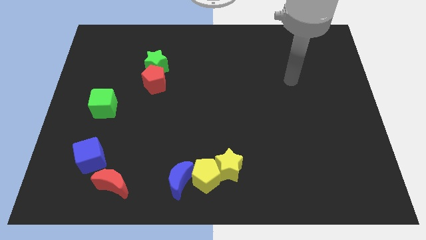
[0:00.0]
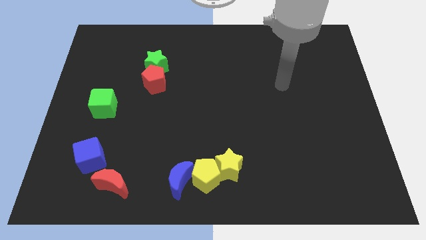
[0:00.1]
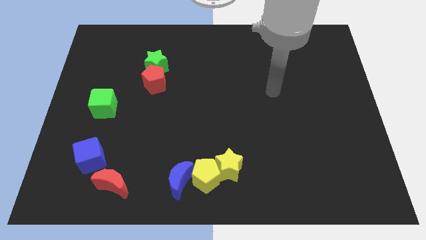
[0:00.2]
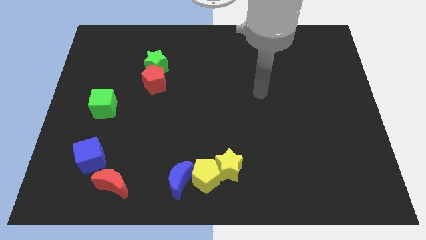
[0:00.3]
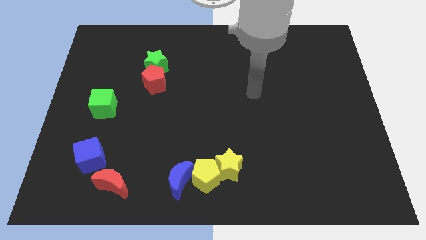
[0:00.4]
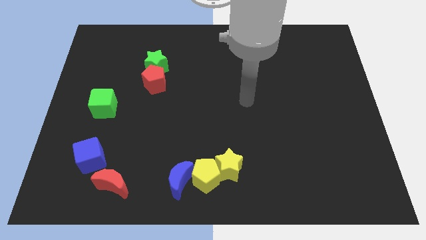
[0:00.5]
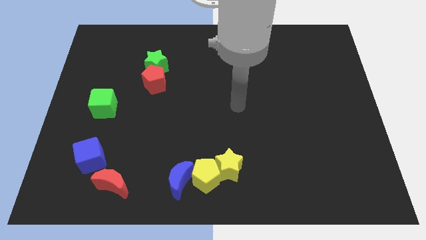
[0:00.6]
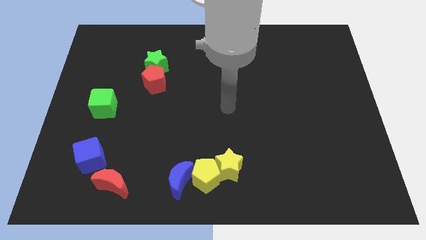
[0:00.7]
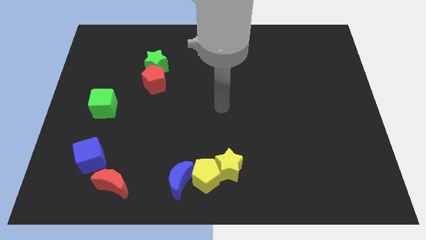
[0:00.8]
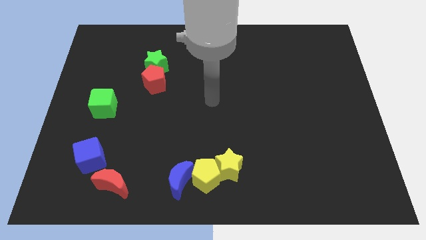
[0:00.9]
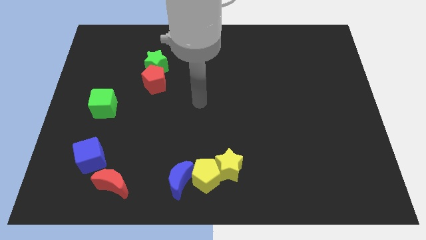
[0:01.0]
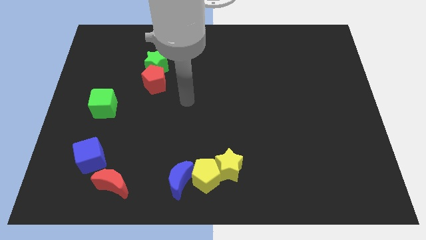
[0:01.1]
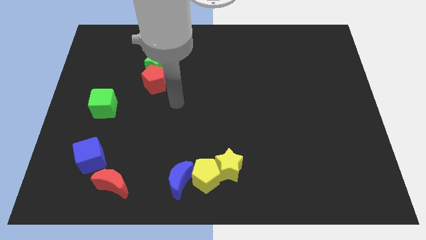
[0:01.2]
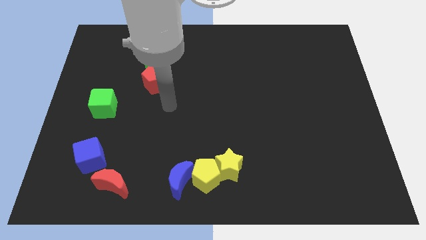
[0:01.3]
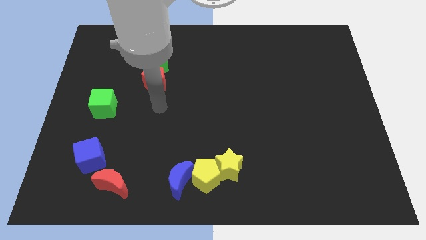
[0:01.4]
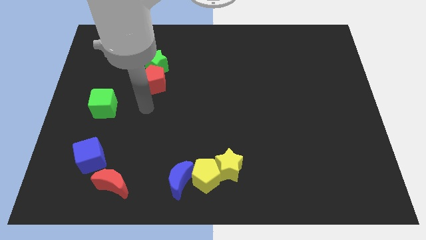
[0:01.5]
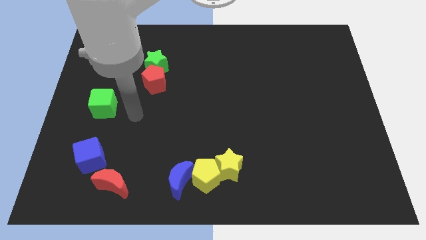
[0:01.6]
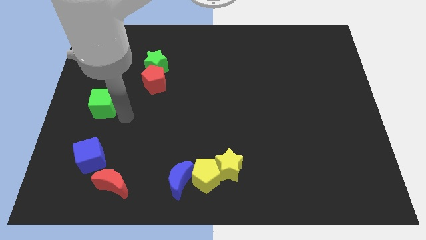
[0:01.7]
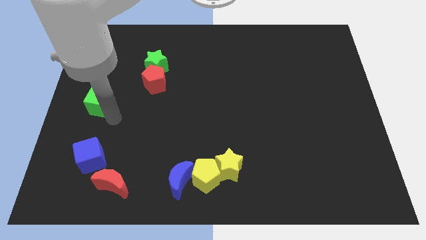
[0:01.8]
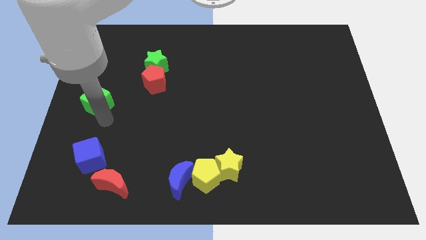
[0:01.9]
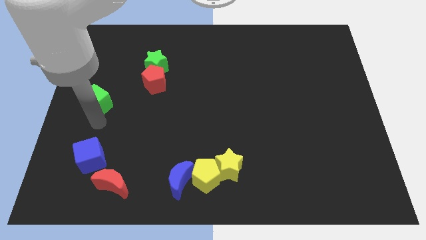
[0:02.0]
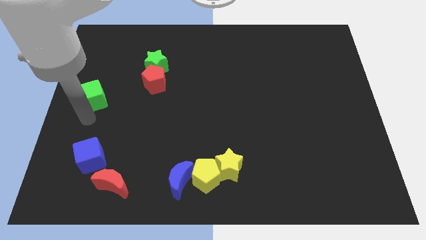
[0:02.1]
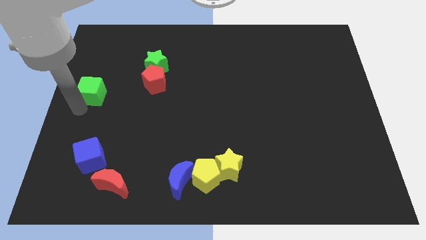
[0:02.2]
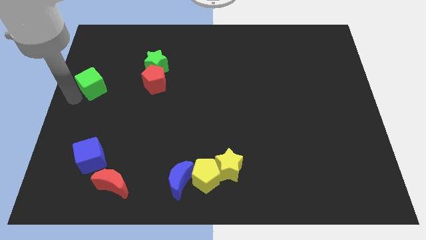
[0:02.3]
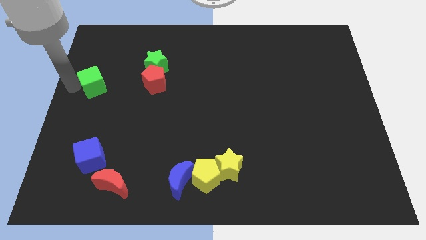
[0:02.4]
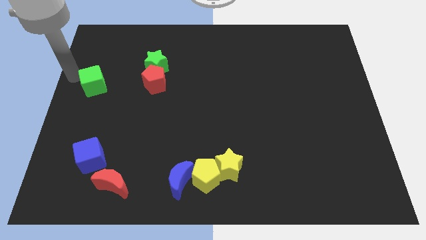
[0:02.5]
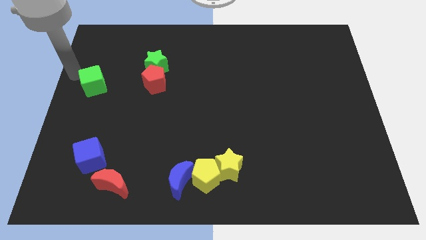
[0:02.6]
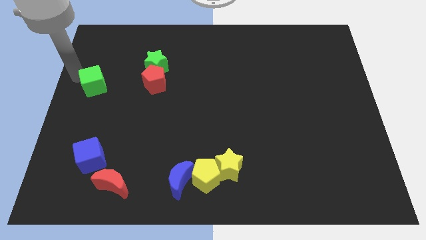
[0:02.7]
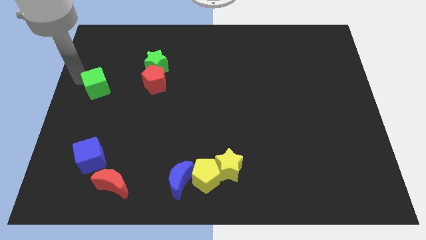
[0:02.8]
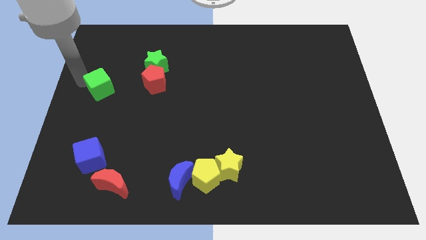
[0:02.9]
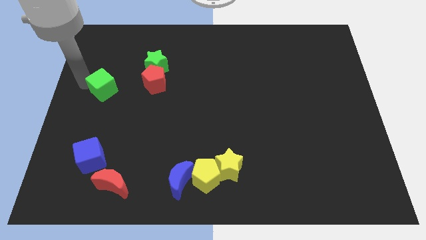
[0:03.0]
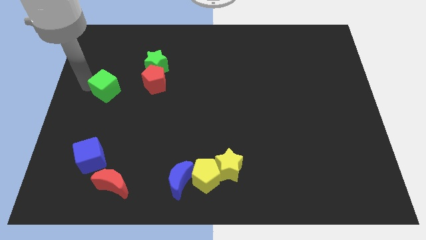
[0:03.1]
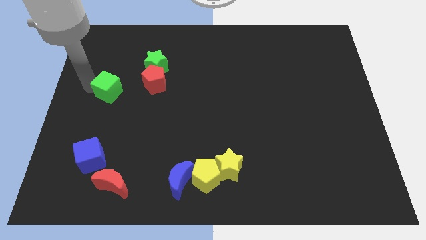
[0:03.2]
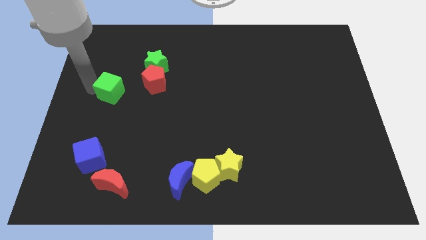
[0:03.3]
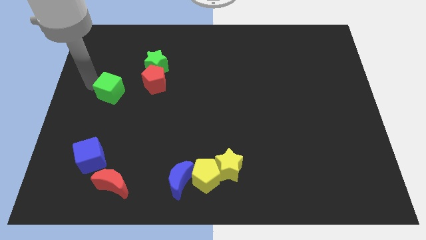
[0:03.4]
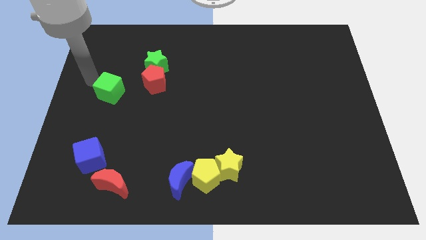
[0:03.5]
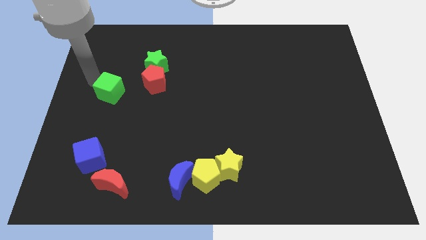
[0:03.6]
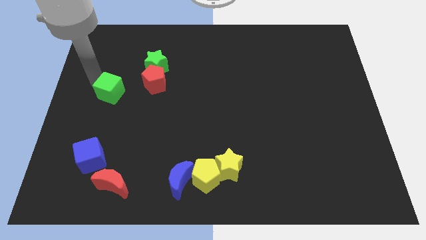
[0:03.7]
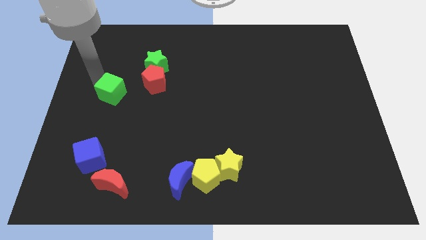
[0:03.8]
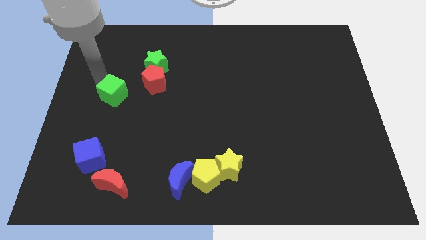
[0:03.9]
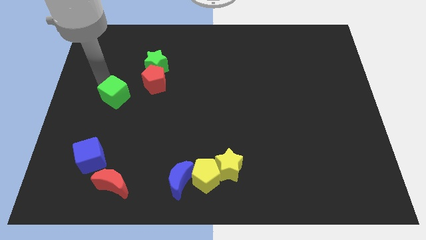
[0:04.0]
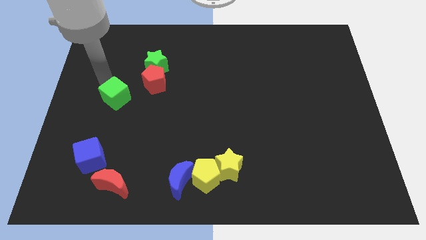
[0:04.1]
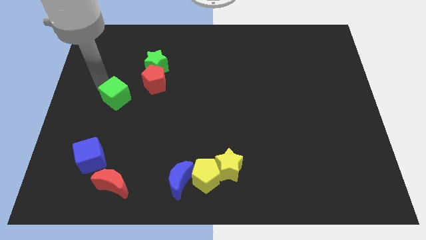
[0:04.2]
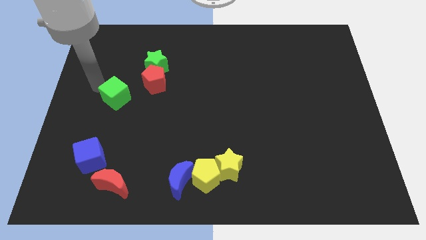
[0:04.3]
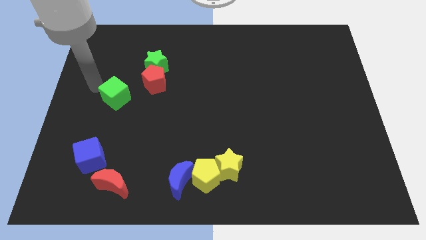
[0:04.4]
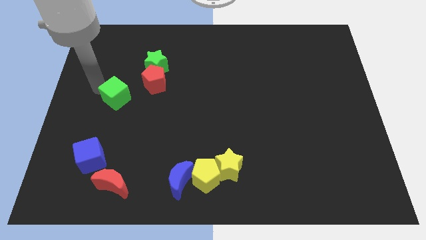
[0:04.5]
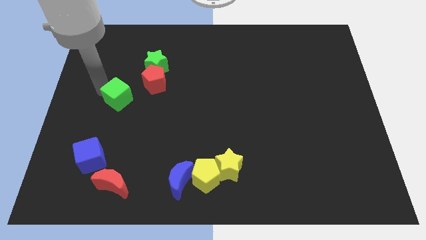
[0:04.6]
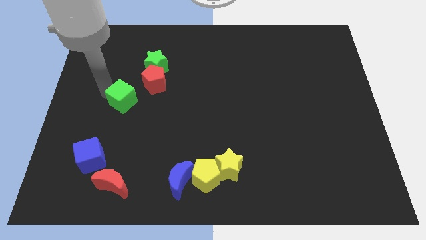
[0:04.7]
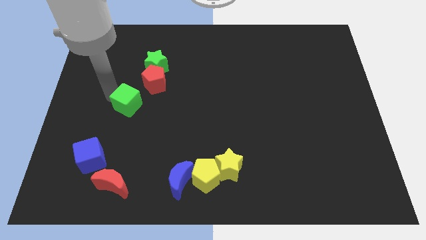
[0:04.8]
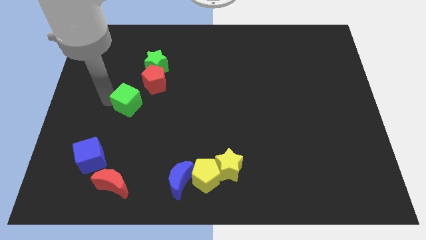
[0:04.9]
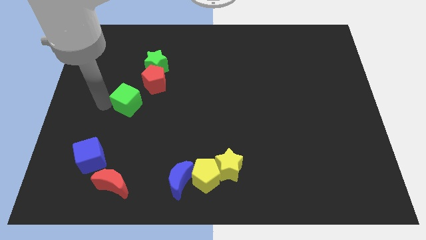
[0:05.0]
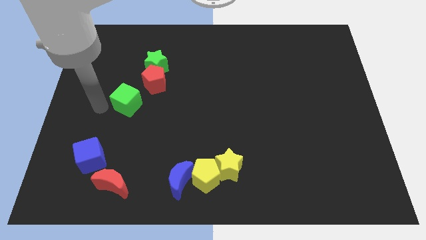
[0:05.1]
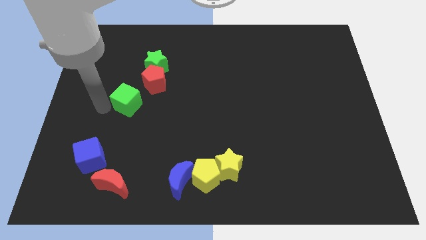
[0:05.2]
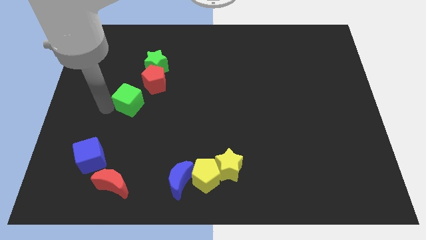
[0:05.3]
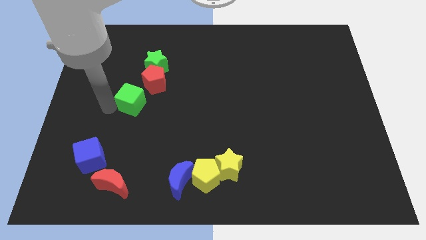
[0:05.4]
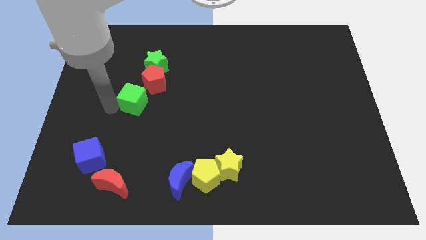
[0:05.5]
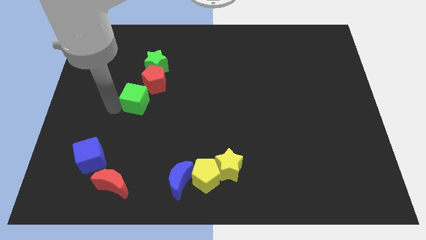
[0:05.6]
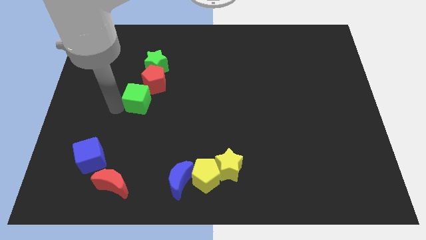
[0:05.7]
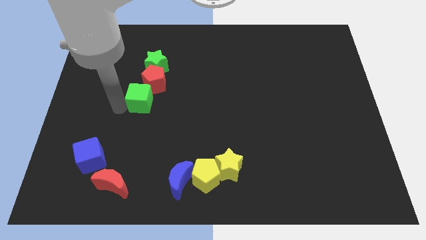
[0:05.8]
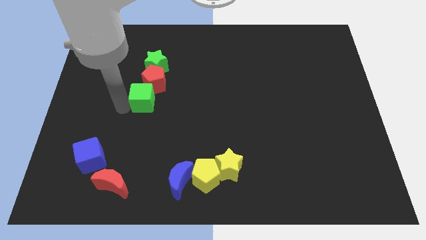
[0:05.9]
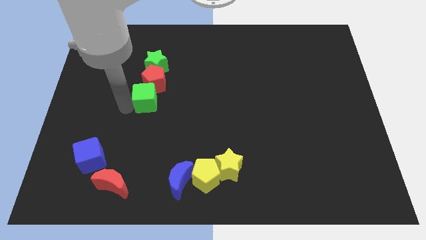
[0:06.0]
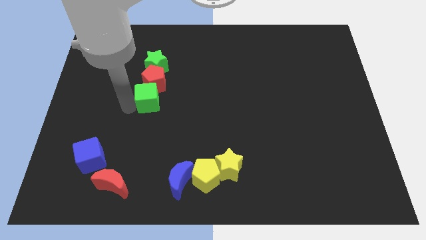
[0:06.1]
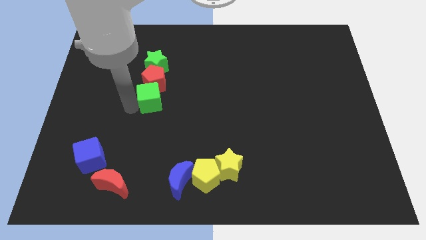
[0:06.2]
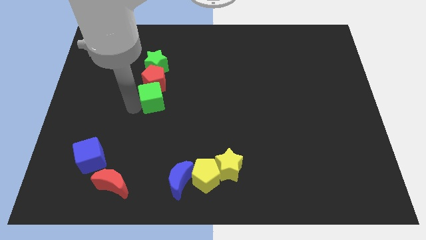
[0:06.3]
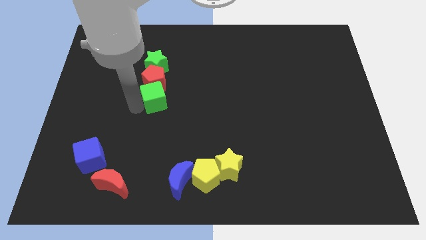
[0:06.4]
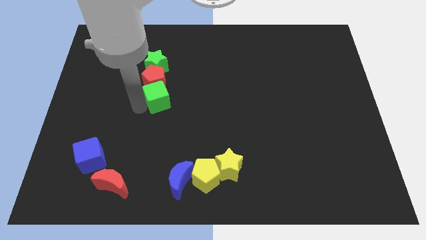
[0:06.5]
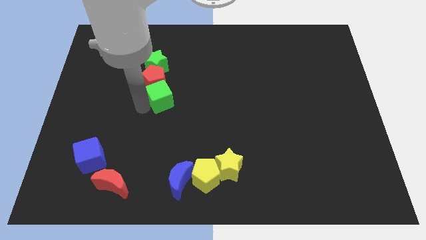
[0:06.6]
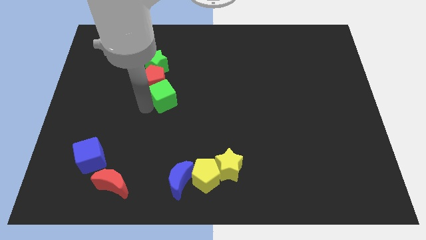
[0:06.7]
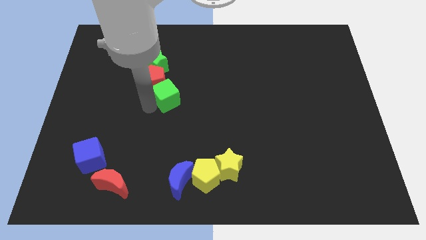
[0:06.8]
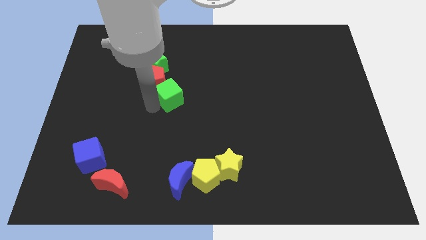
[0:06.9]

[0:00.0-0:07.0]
push the green cube diagonally down and to the right of the green star

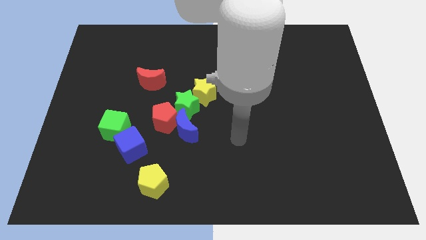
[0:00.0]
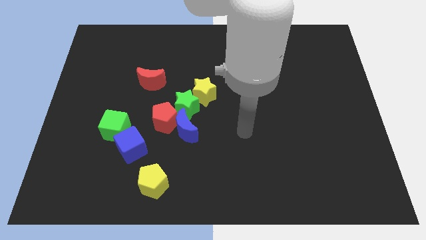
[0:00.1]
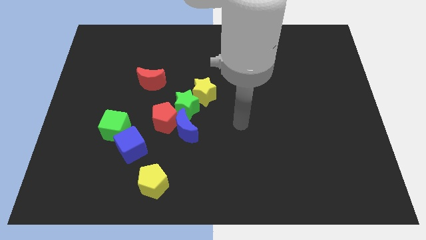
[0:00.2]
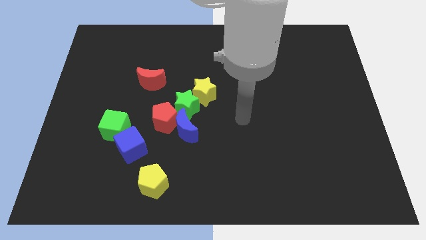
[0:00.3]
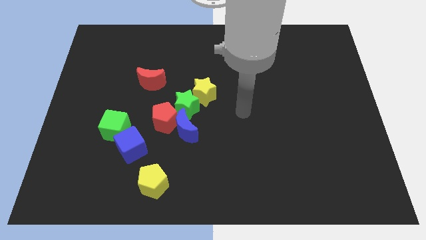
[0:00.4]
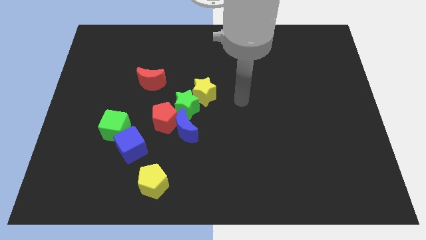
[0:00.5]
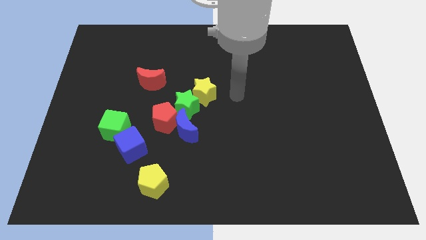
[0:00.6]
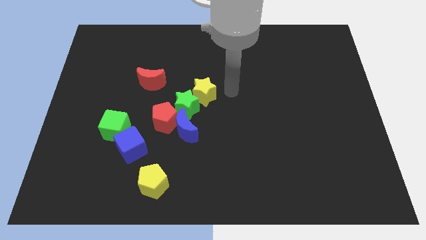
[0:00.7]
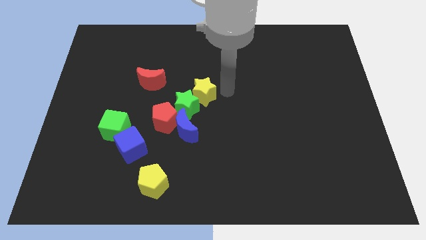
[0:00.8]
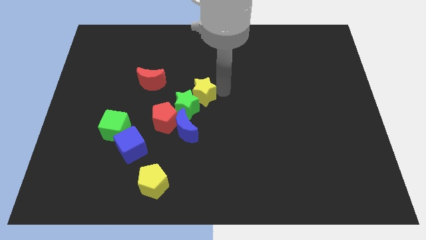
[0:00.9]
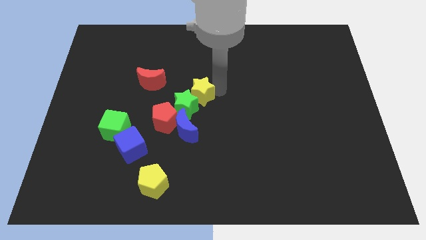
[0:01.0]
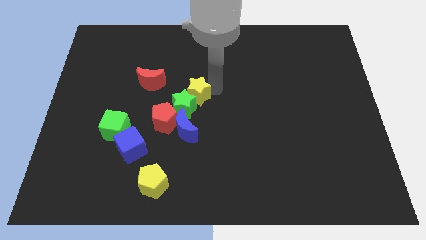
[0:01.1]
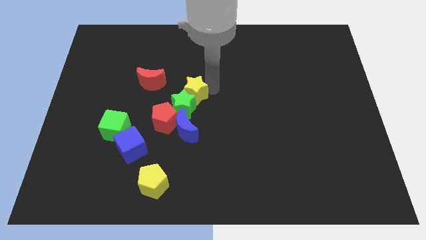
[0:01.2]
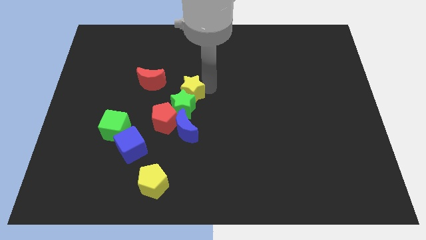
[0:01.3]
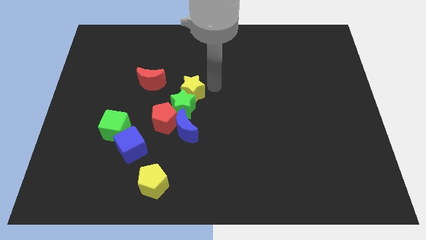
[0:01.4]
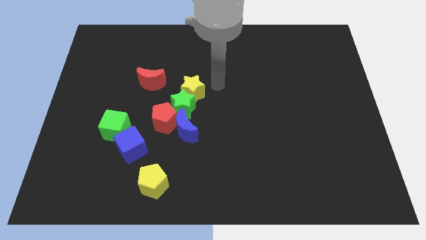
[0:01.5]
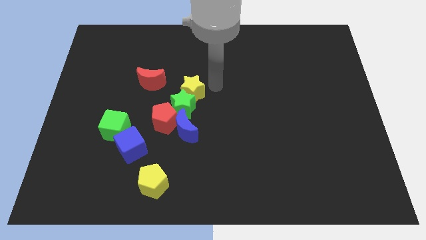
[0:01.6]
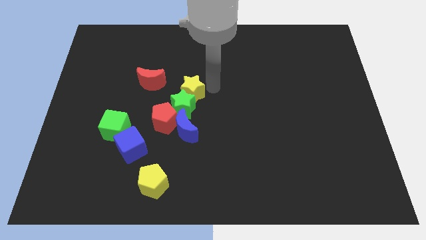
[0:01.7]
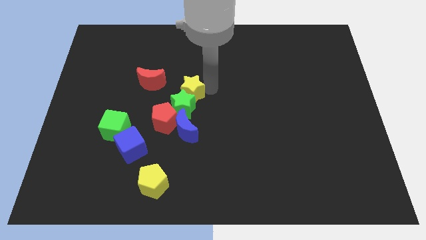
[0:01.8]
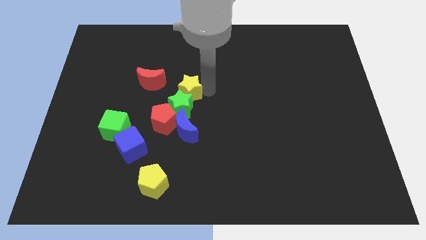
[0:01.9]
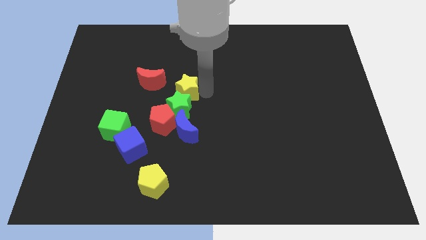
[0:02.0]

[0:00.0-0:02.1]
push the yellow star to the bottom right side of the red moon
